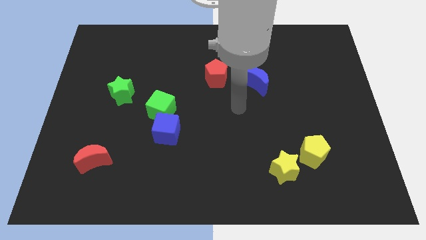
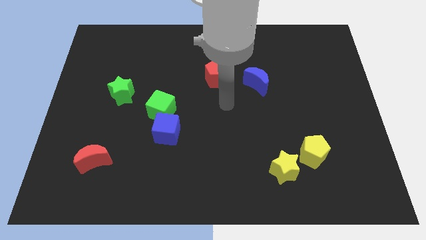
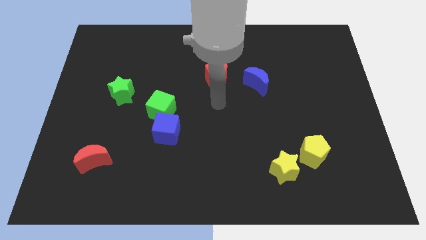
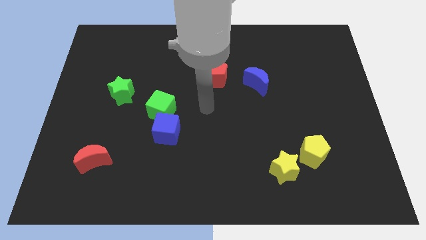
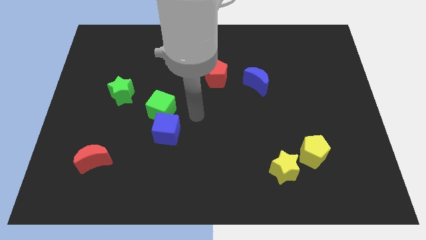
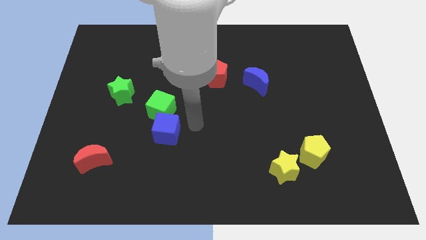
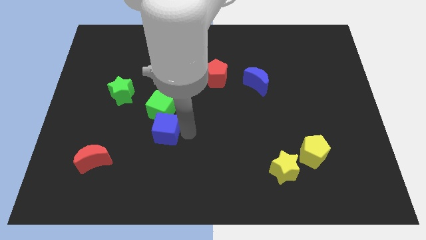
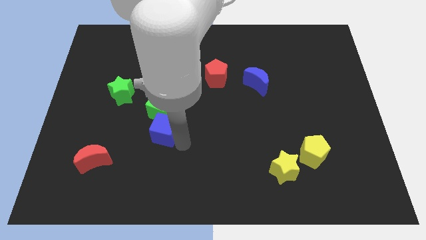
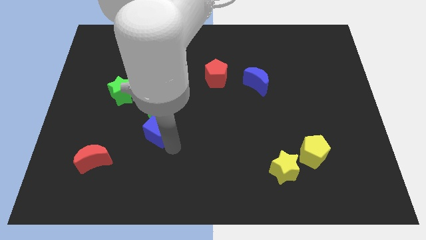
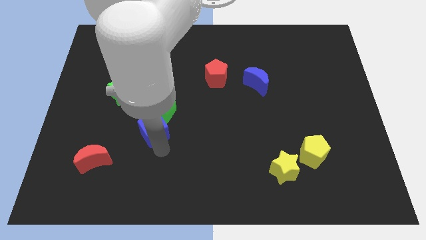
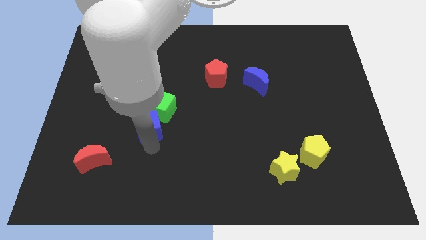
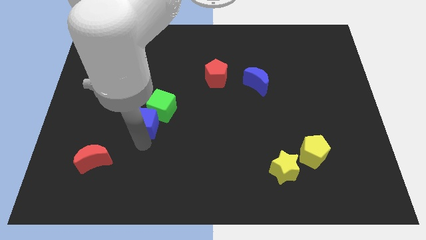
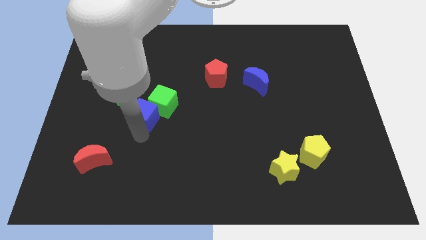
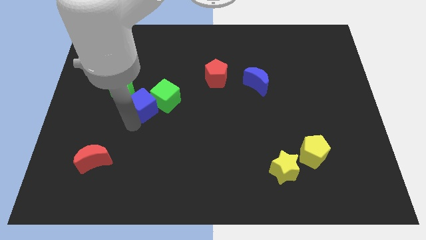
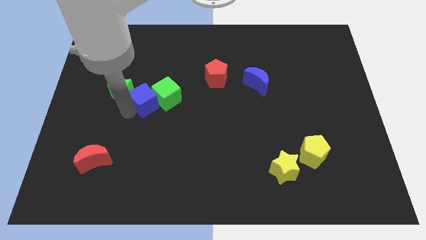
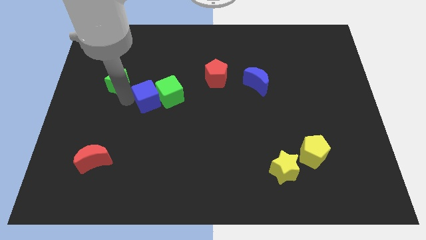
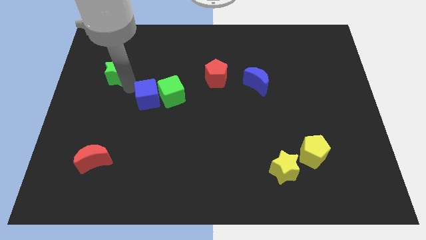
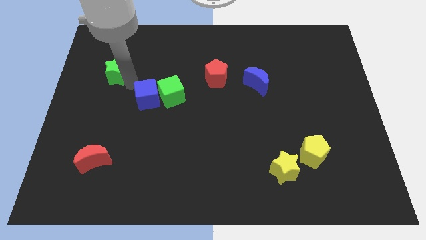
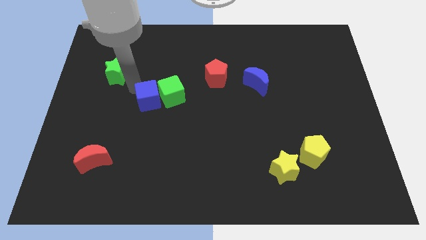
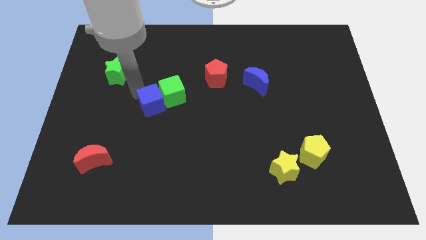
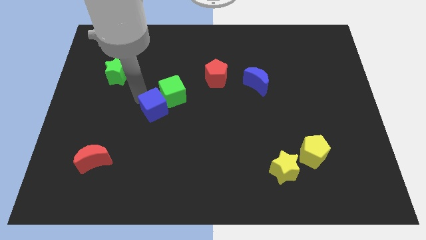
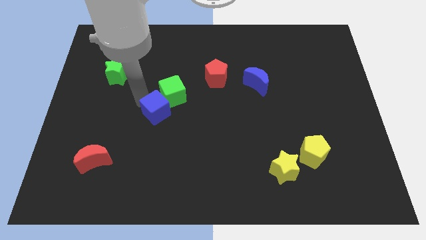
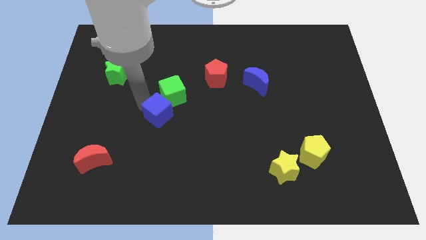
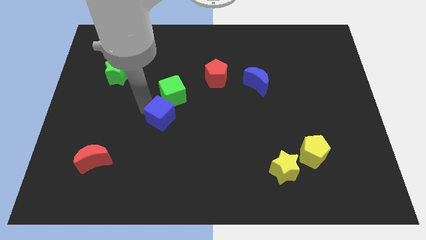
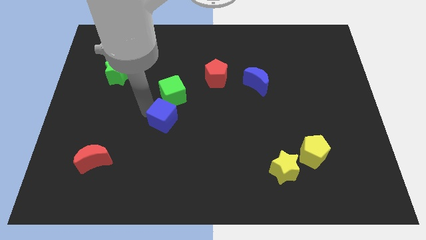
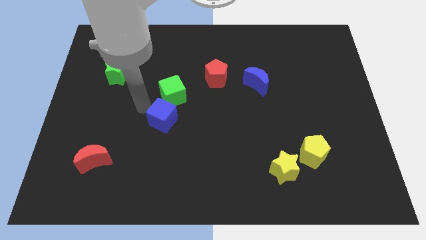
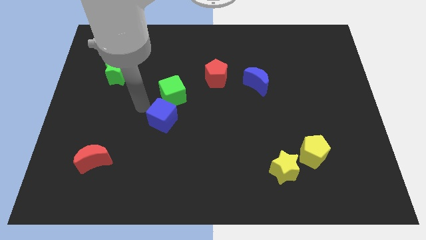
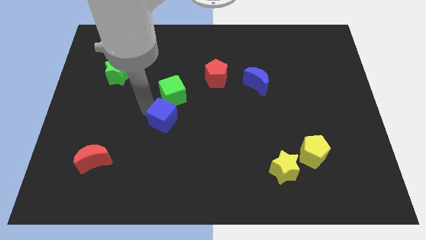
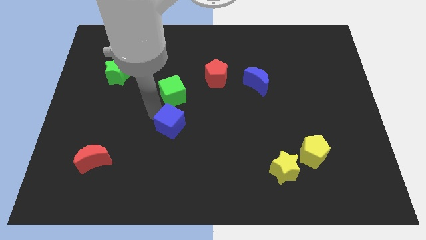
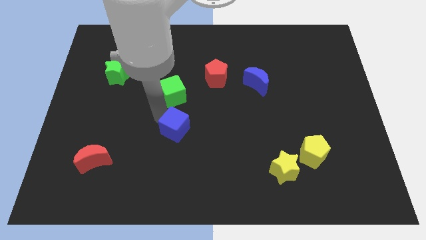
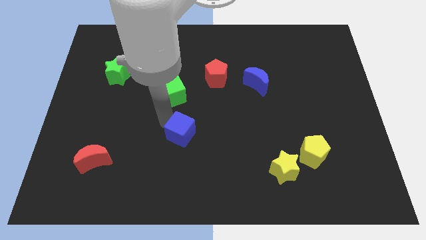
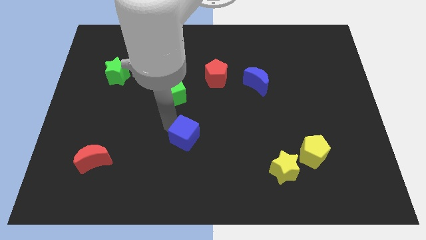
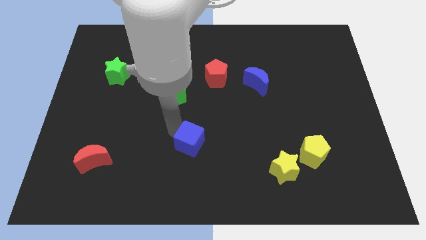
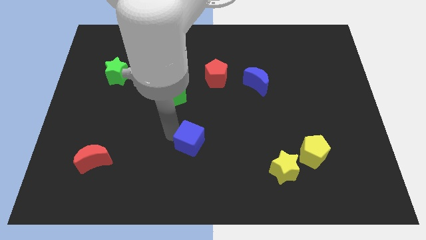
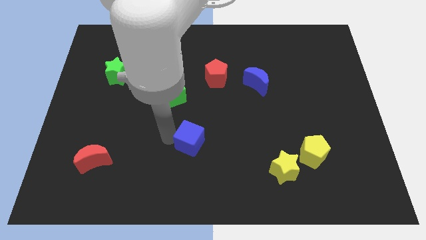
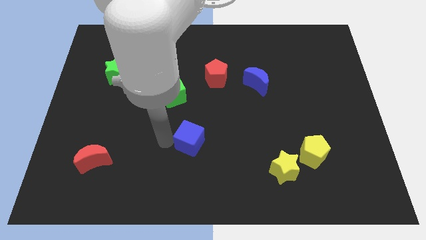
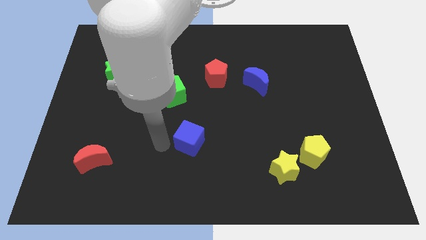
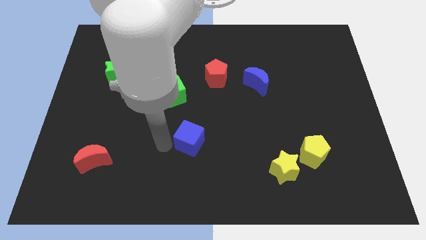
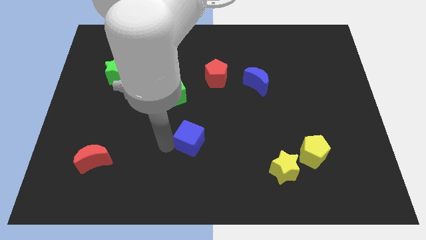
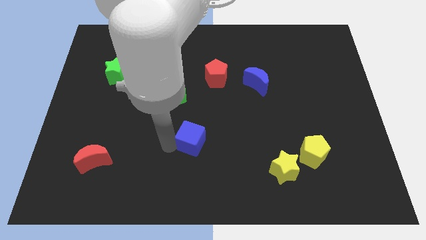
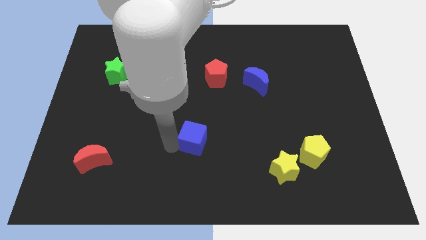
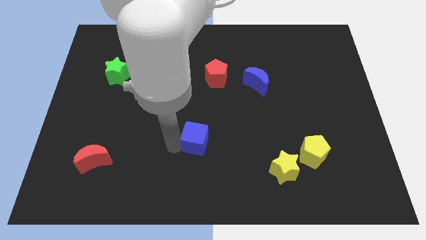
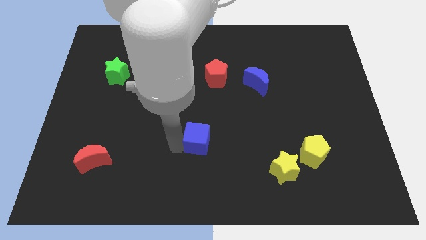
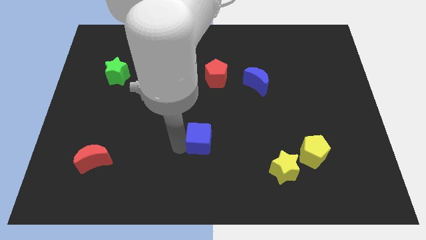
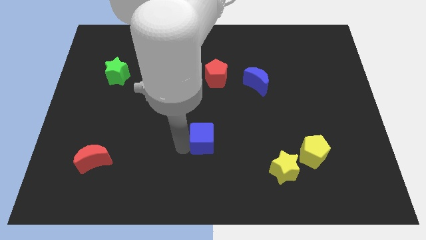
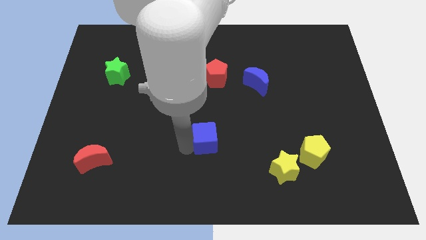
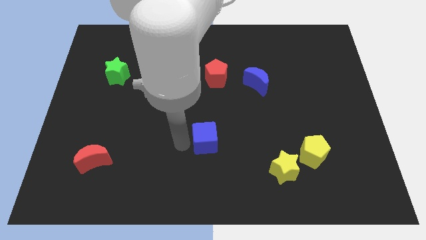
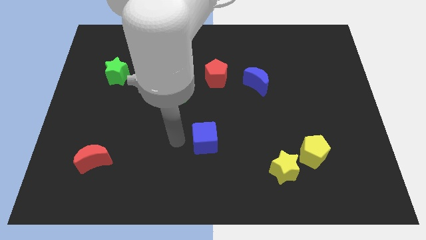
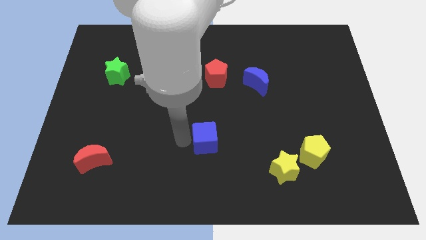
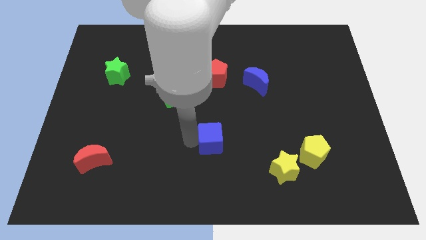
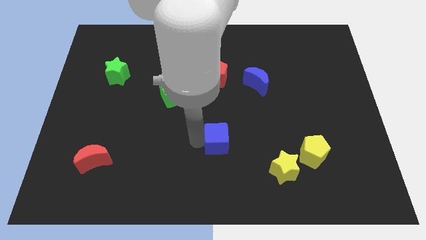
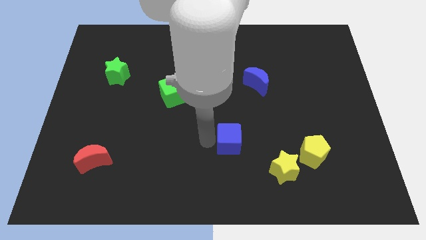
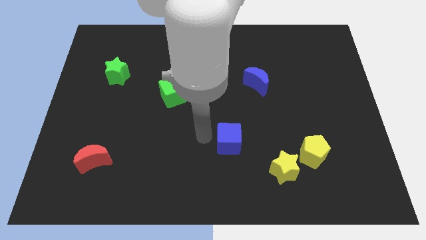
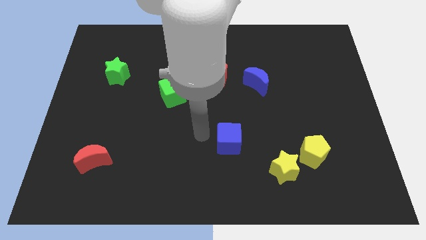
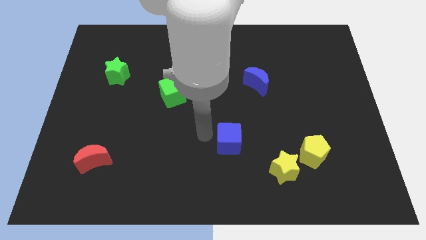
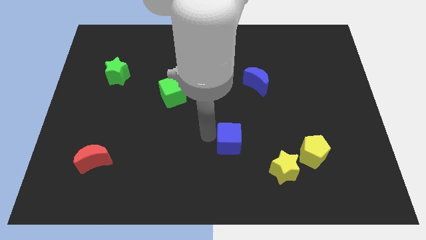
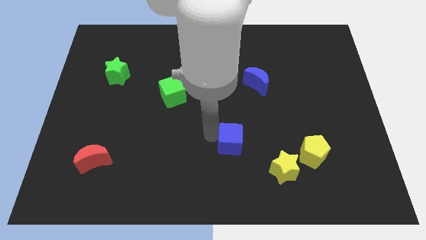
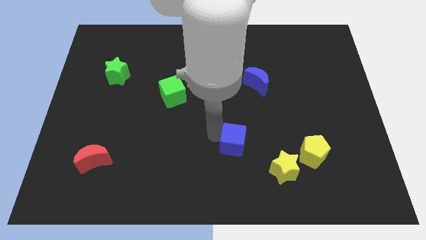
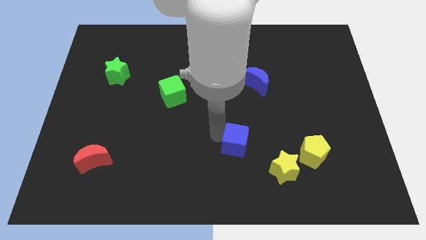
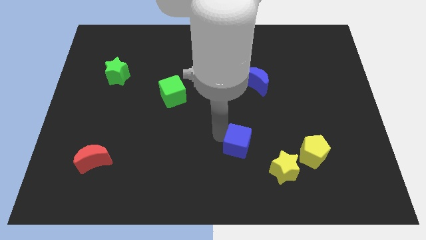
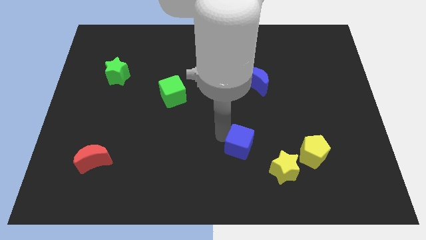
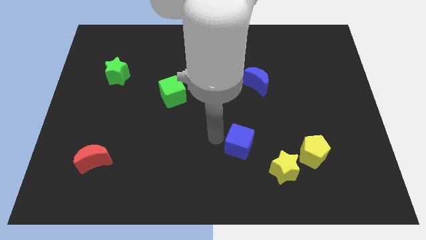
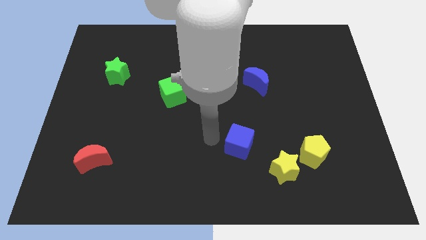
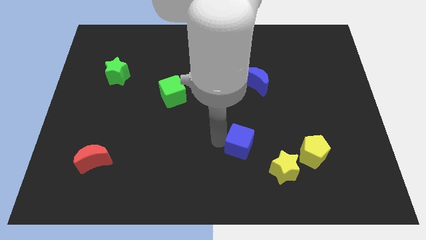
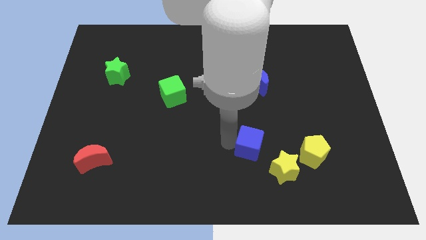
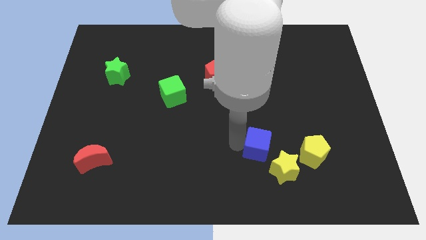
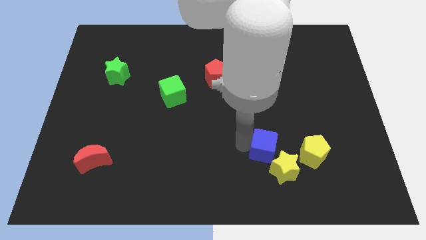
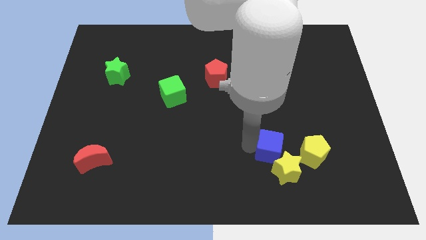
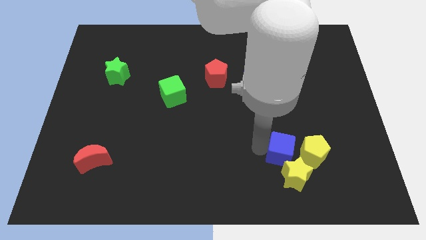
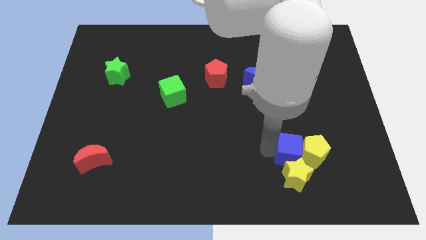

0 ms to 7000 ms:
move the blue cube to the yellow pentagon
